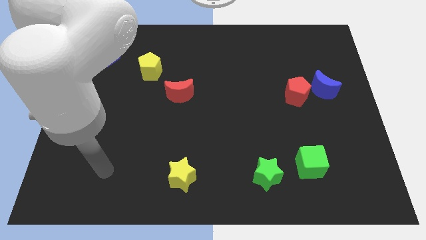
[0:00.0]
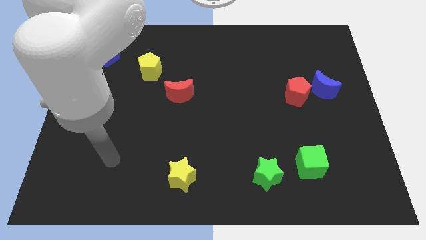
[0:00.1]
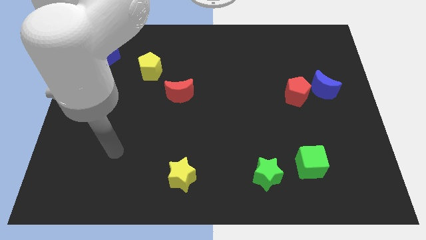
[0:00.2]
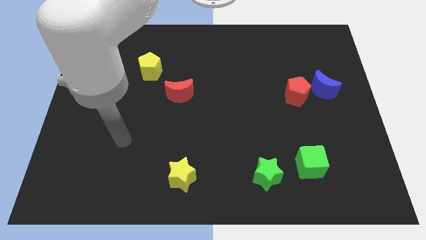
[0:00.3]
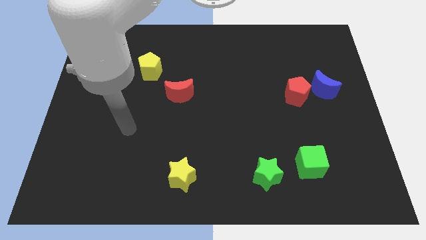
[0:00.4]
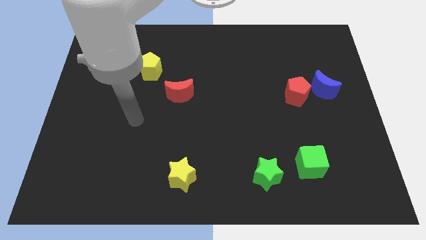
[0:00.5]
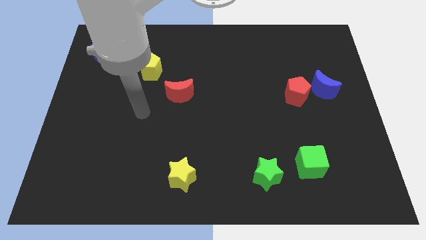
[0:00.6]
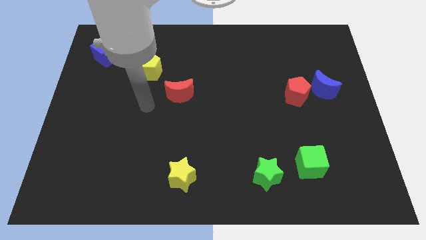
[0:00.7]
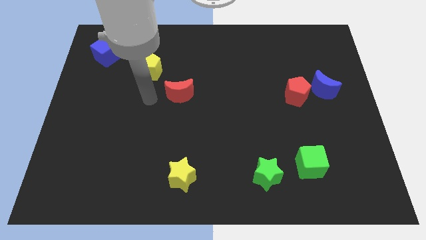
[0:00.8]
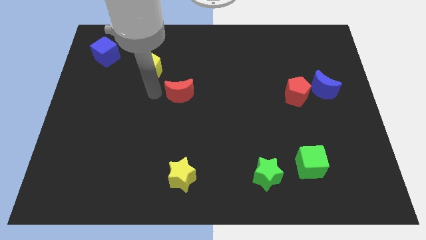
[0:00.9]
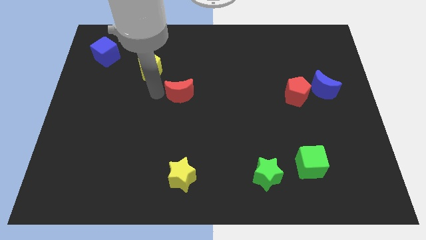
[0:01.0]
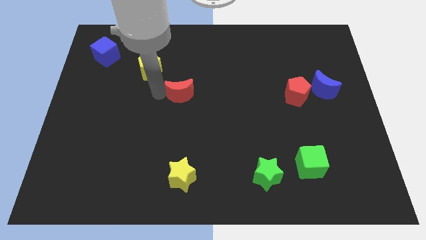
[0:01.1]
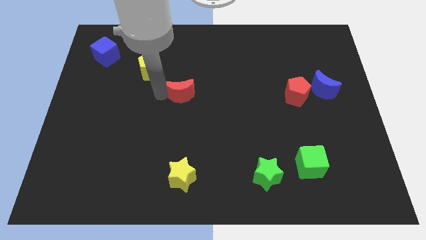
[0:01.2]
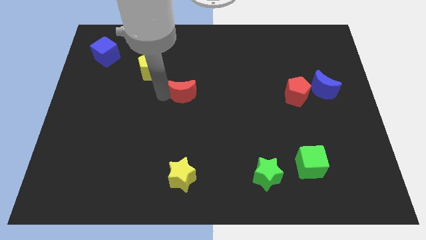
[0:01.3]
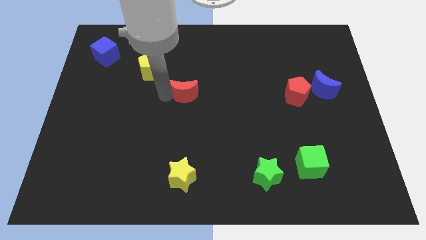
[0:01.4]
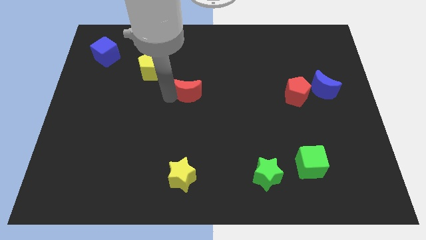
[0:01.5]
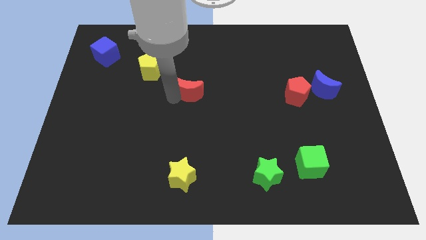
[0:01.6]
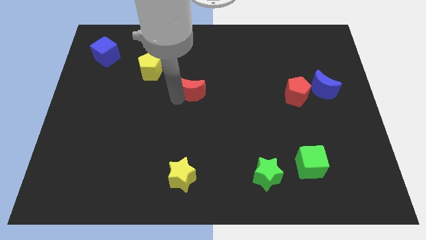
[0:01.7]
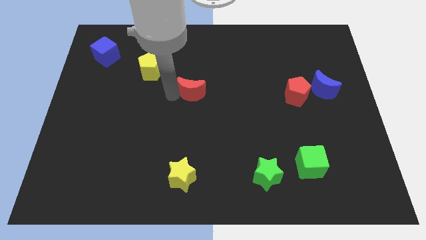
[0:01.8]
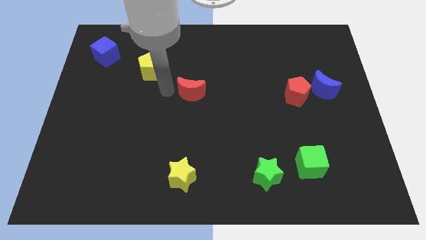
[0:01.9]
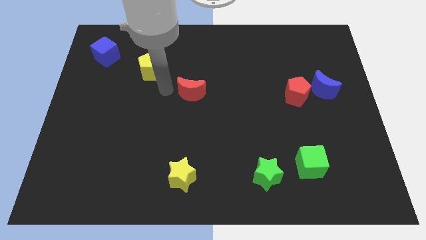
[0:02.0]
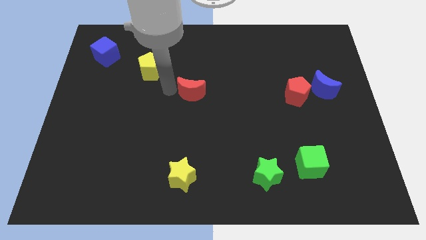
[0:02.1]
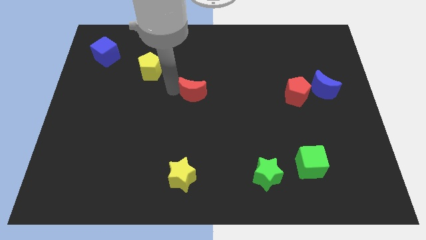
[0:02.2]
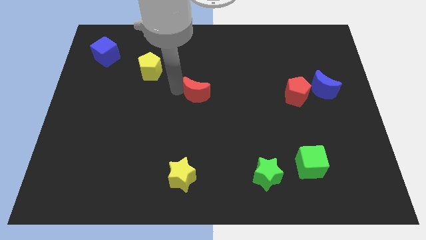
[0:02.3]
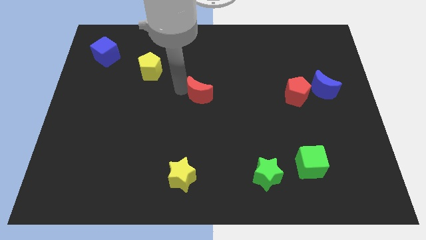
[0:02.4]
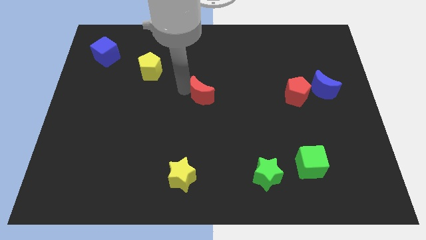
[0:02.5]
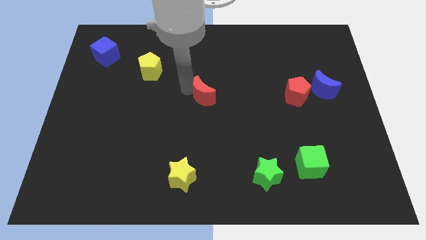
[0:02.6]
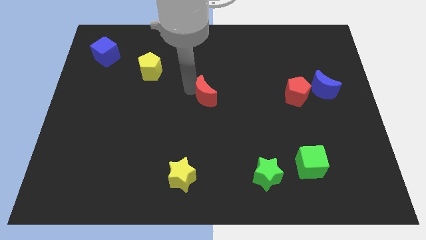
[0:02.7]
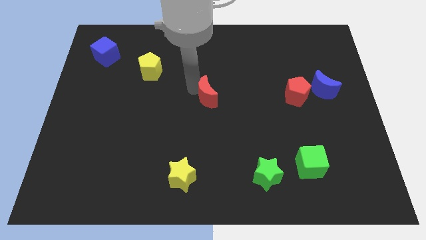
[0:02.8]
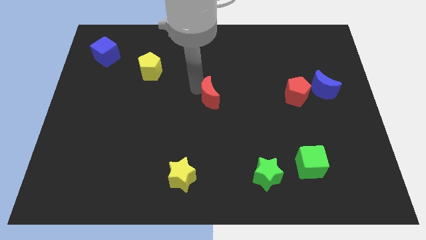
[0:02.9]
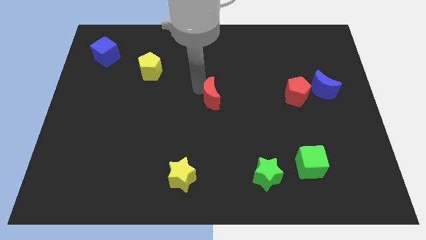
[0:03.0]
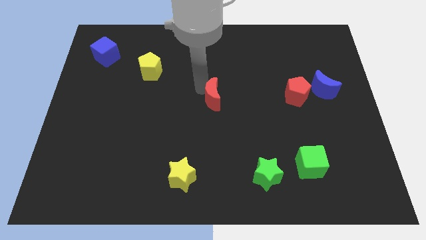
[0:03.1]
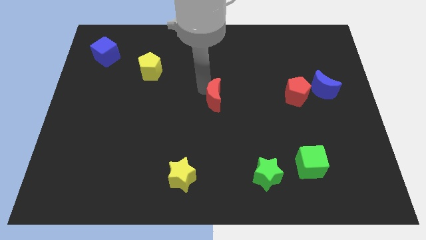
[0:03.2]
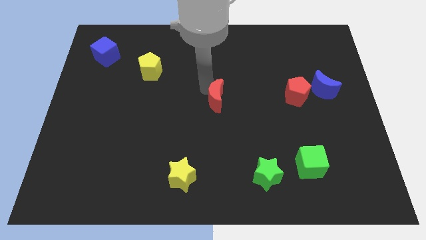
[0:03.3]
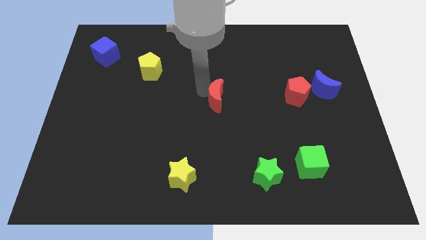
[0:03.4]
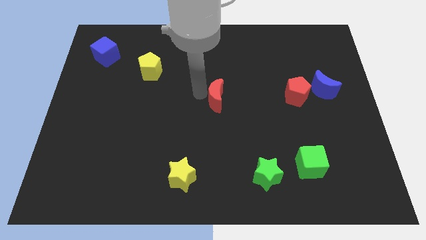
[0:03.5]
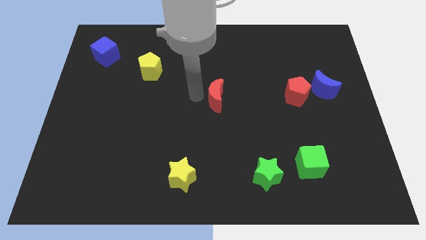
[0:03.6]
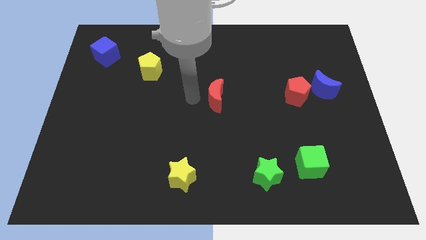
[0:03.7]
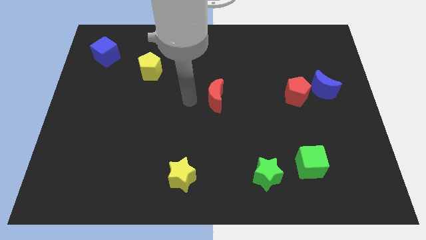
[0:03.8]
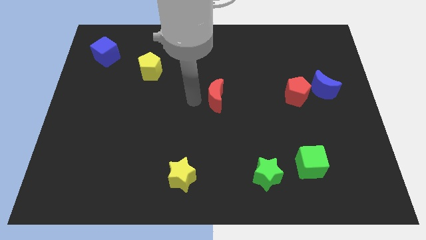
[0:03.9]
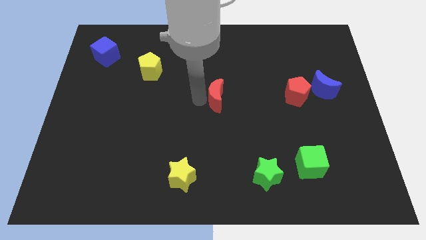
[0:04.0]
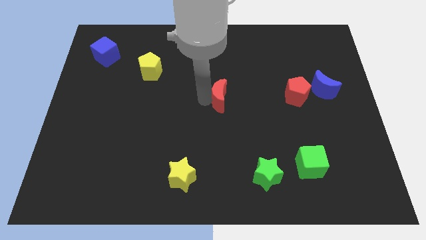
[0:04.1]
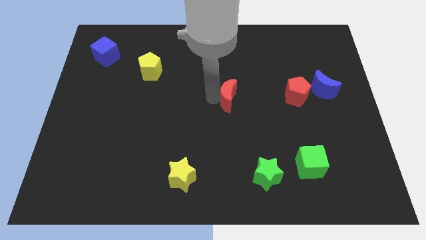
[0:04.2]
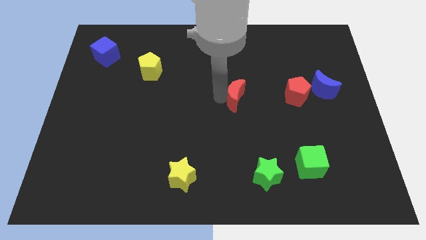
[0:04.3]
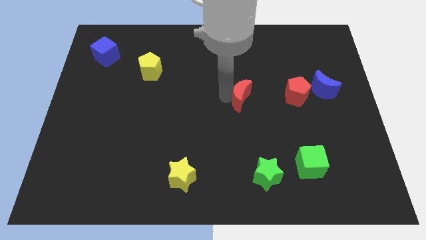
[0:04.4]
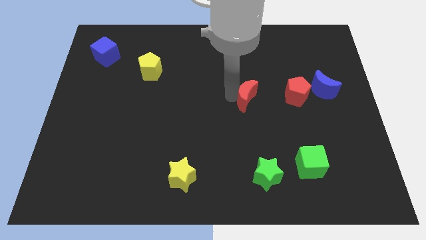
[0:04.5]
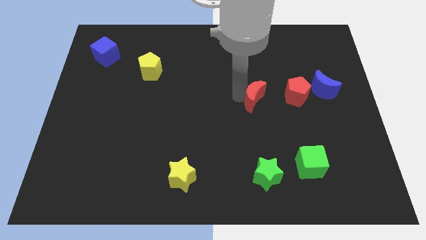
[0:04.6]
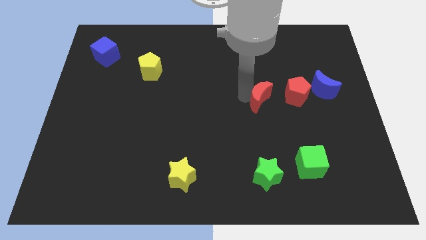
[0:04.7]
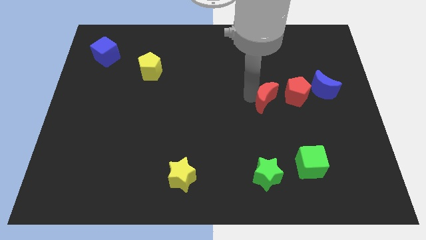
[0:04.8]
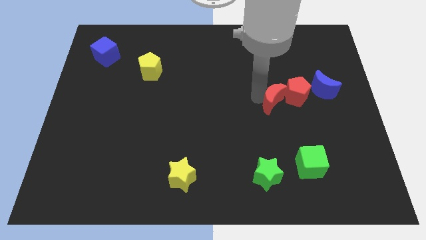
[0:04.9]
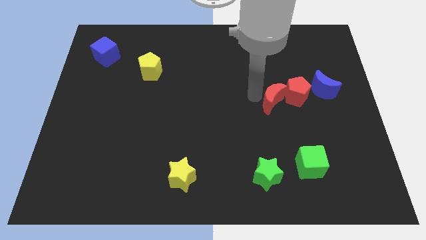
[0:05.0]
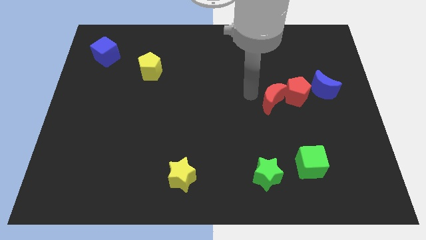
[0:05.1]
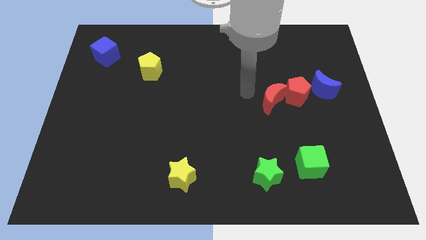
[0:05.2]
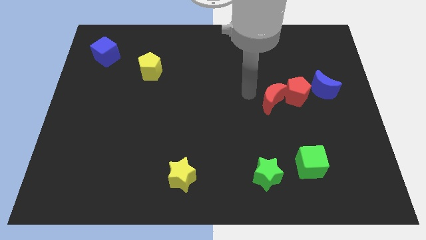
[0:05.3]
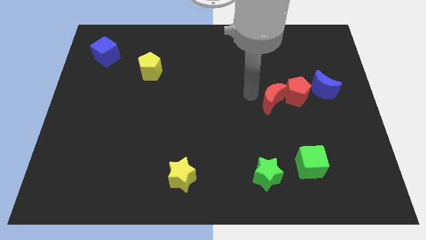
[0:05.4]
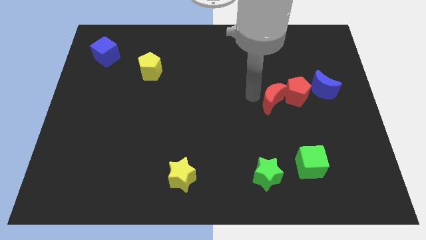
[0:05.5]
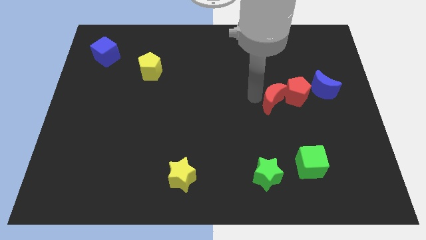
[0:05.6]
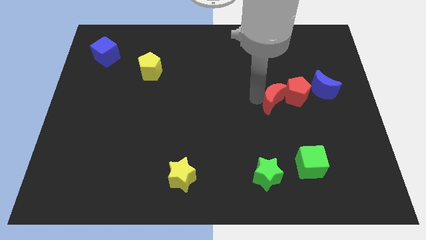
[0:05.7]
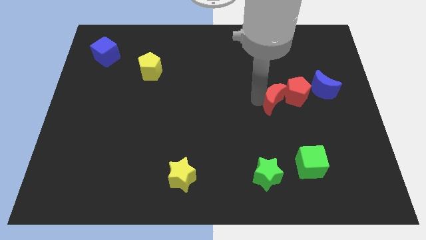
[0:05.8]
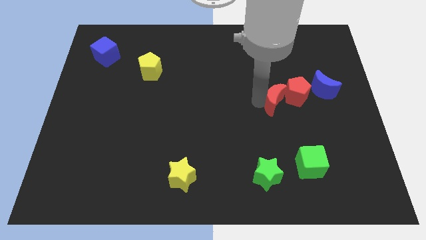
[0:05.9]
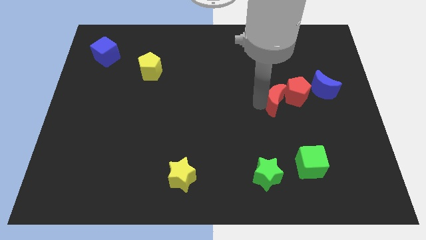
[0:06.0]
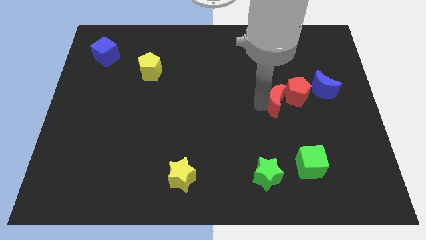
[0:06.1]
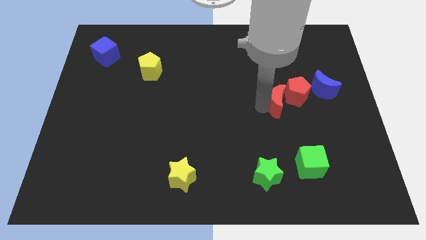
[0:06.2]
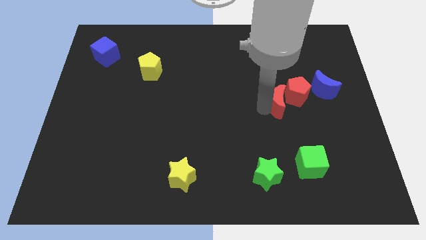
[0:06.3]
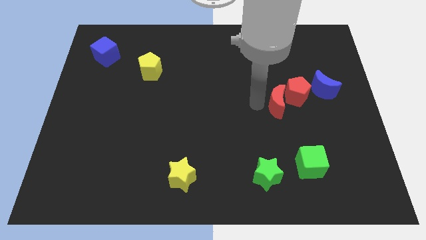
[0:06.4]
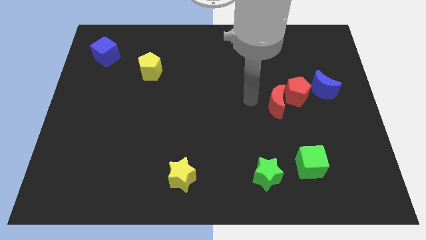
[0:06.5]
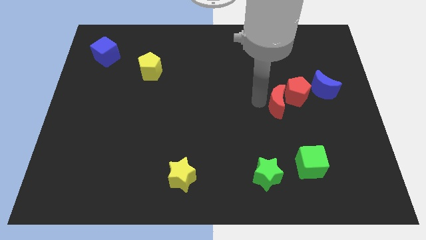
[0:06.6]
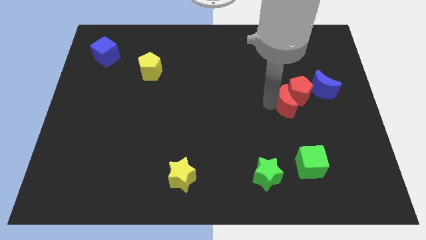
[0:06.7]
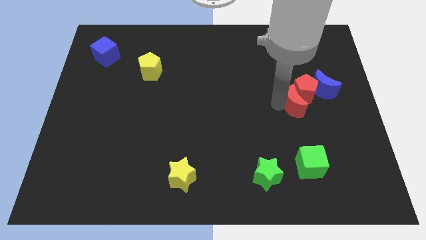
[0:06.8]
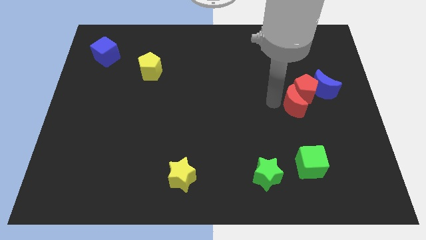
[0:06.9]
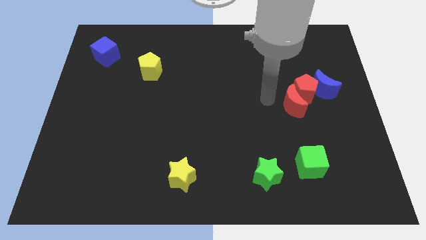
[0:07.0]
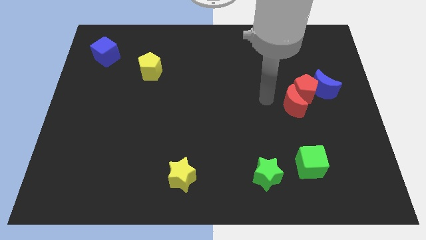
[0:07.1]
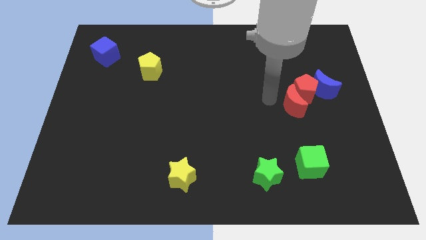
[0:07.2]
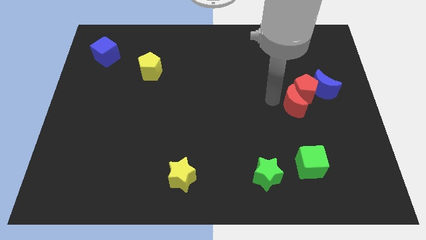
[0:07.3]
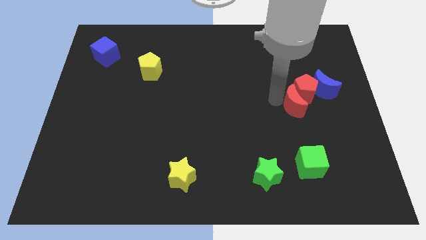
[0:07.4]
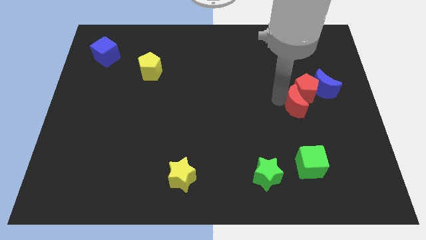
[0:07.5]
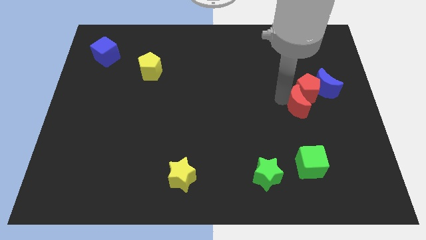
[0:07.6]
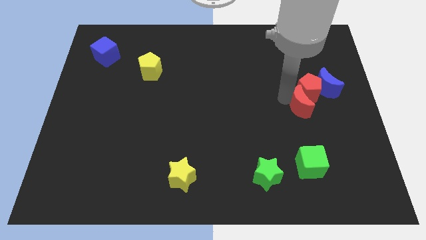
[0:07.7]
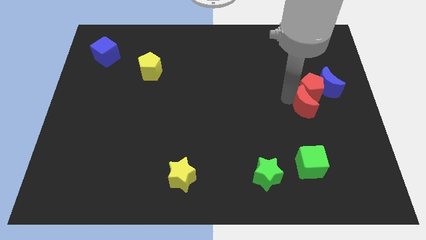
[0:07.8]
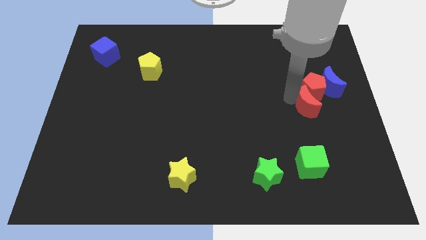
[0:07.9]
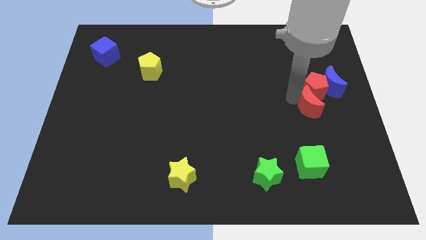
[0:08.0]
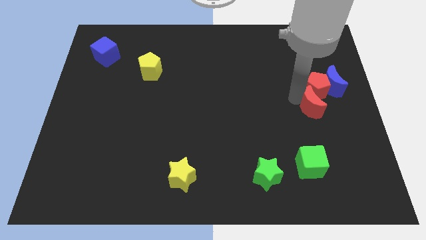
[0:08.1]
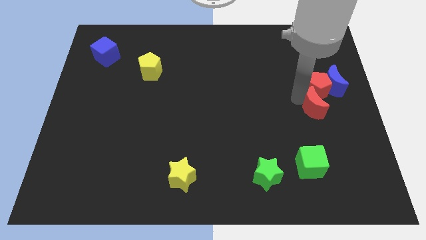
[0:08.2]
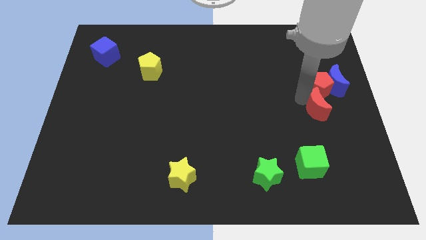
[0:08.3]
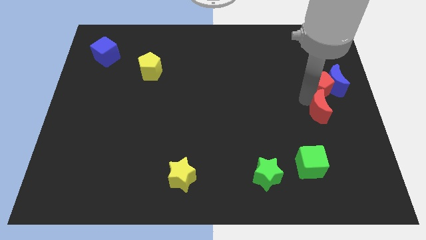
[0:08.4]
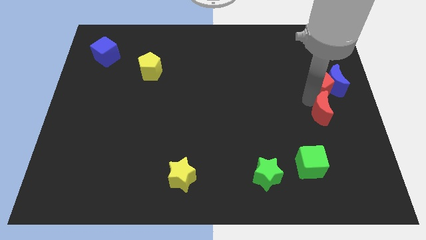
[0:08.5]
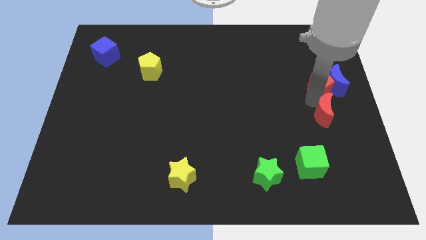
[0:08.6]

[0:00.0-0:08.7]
slide the red moon to the right side
